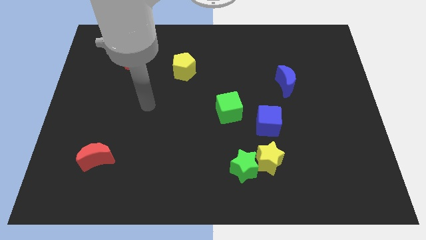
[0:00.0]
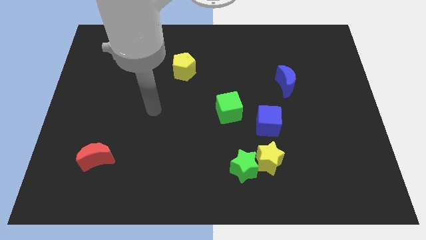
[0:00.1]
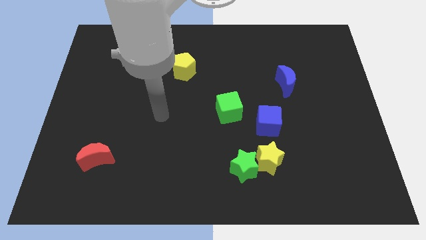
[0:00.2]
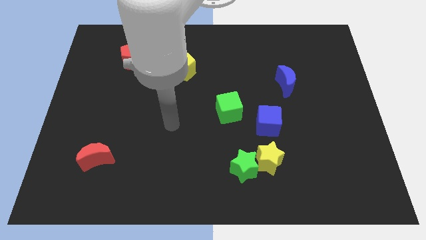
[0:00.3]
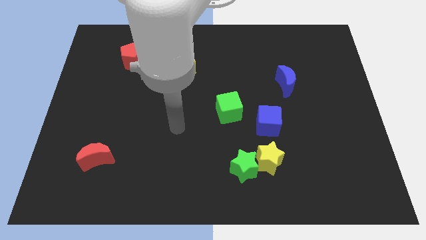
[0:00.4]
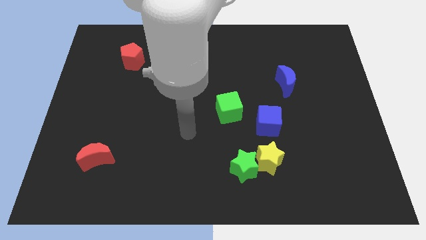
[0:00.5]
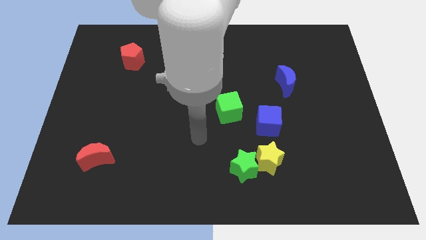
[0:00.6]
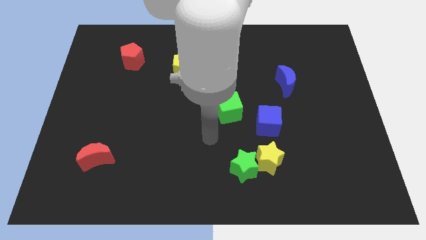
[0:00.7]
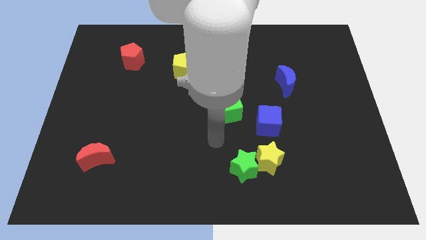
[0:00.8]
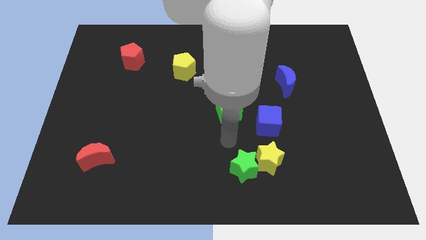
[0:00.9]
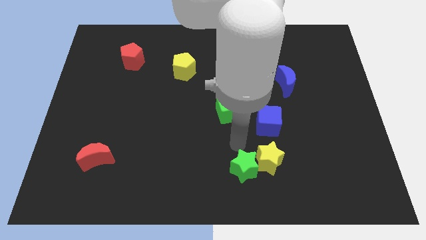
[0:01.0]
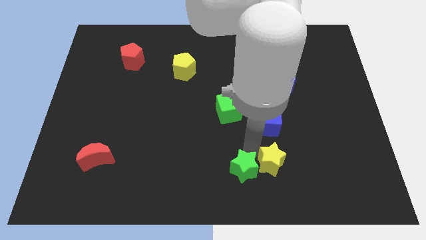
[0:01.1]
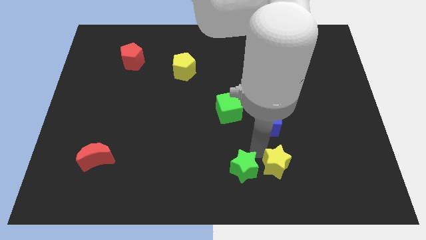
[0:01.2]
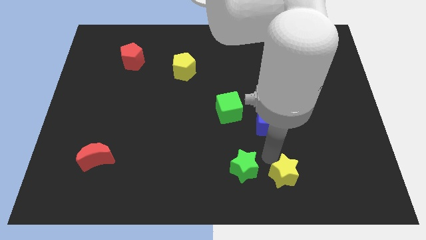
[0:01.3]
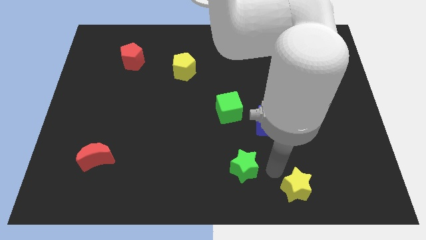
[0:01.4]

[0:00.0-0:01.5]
separate the green star from the yellow star

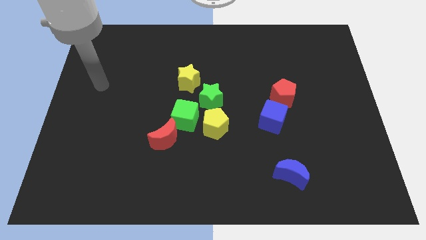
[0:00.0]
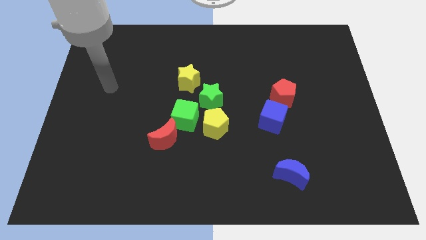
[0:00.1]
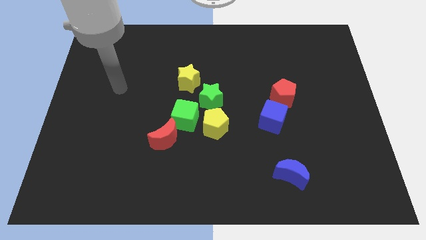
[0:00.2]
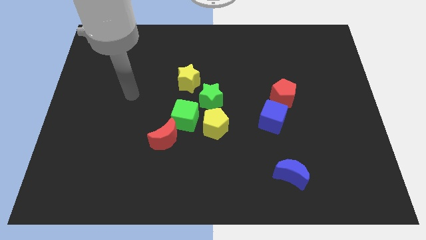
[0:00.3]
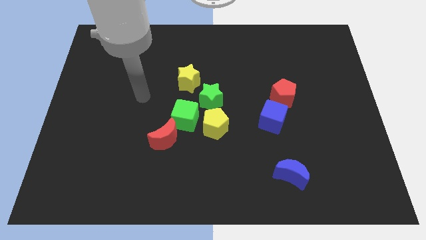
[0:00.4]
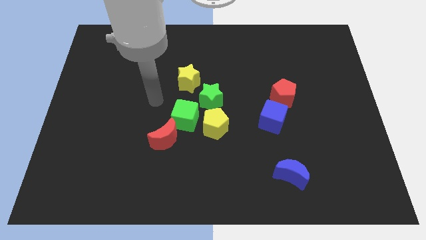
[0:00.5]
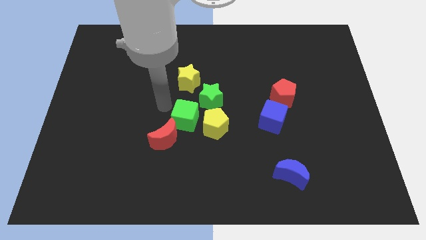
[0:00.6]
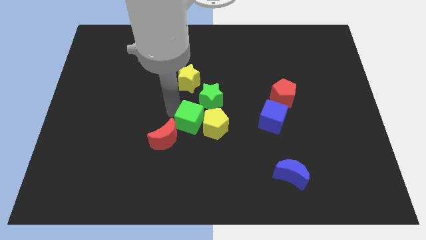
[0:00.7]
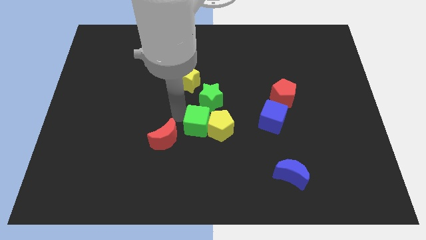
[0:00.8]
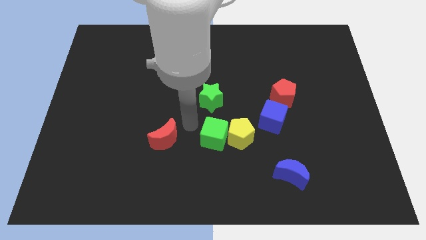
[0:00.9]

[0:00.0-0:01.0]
pull the red moon apart from the green cube

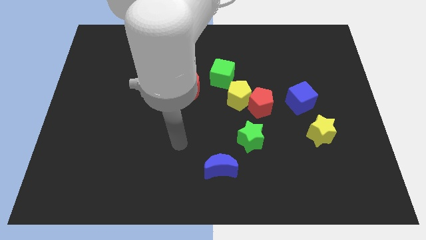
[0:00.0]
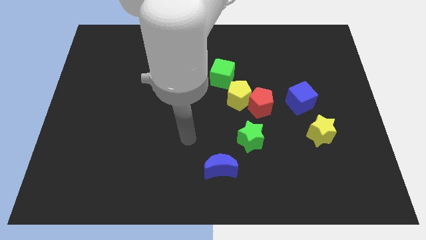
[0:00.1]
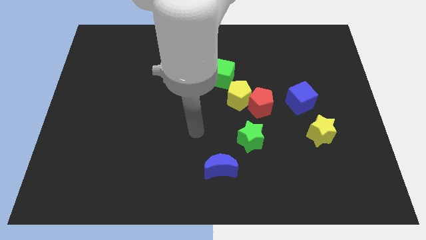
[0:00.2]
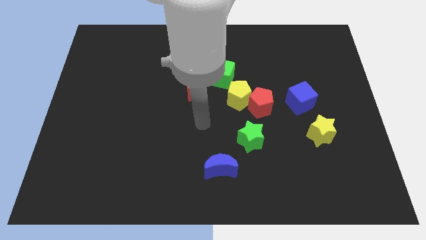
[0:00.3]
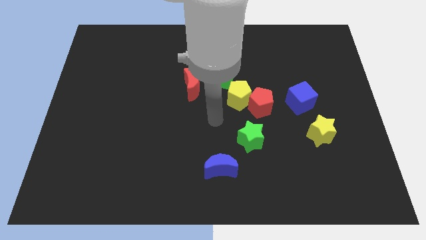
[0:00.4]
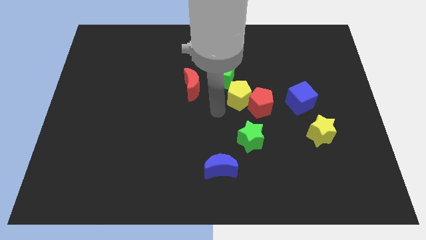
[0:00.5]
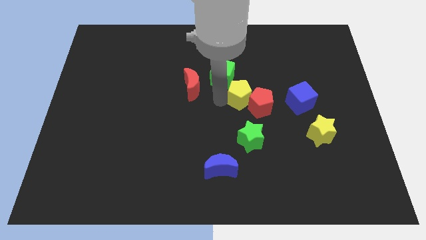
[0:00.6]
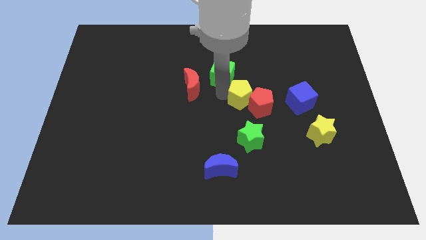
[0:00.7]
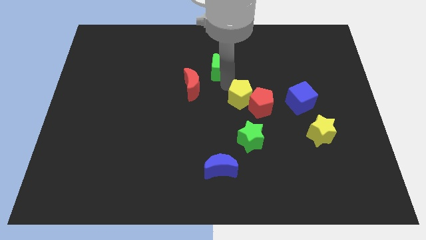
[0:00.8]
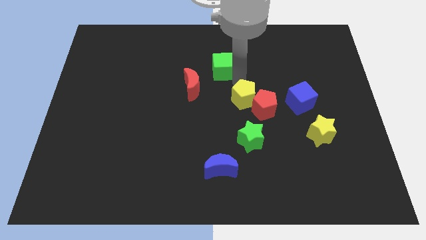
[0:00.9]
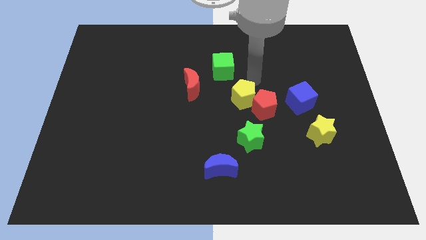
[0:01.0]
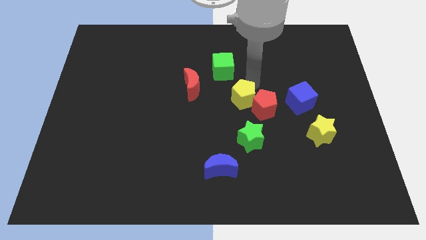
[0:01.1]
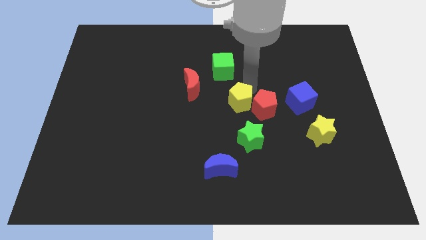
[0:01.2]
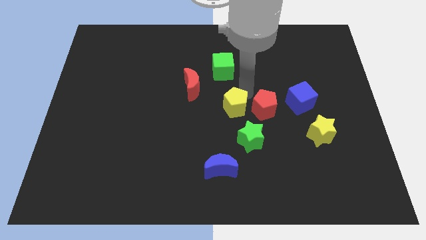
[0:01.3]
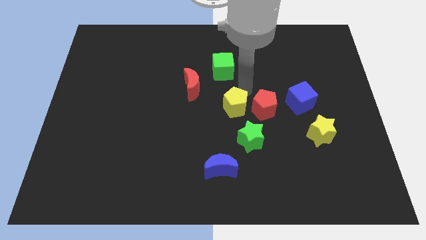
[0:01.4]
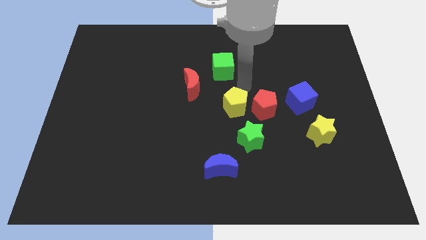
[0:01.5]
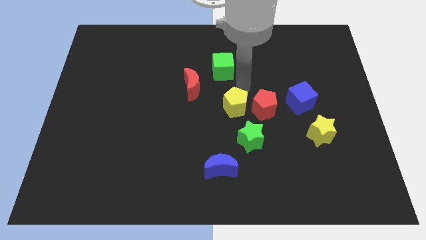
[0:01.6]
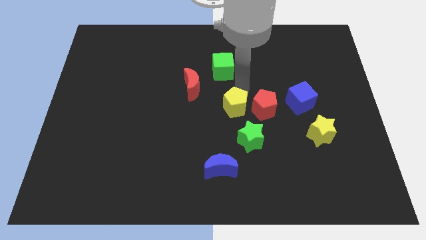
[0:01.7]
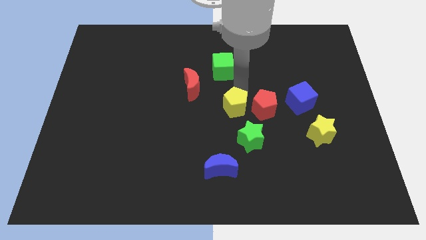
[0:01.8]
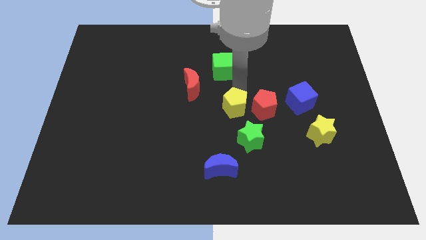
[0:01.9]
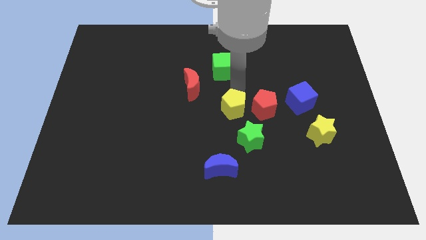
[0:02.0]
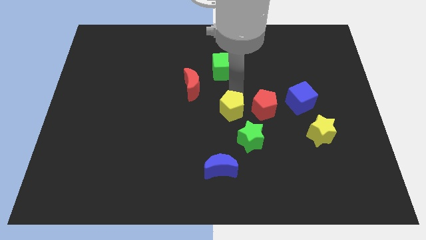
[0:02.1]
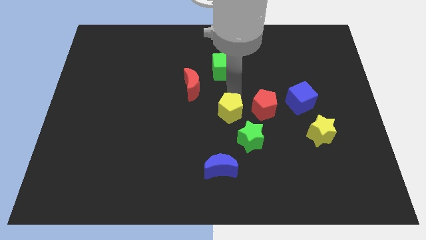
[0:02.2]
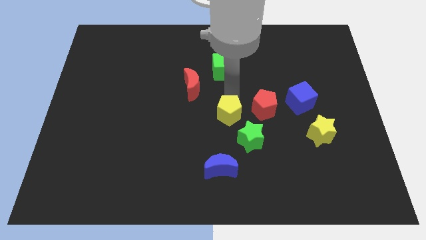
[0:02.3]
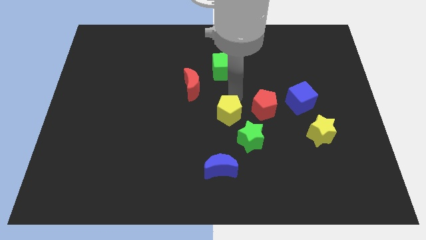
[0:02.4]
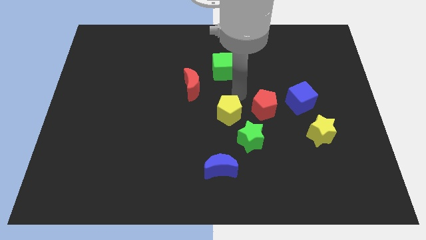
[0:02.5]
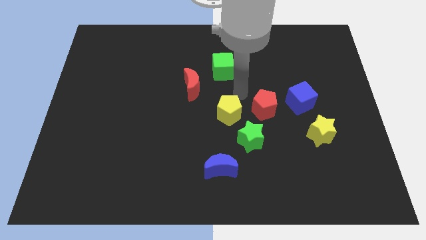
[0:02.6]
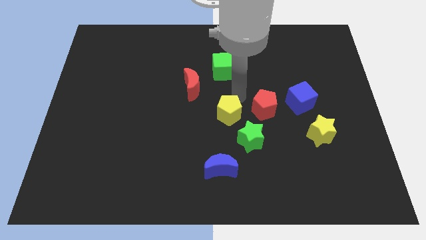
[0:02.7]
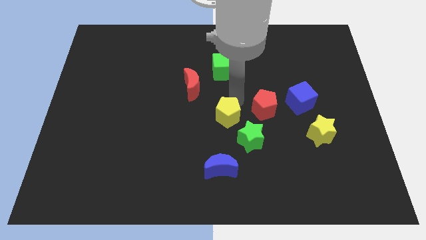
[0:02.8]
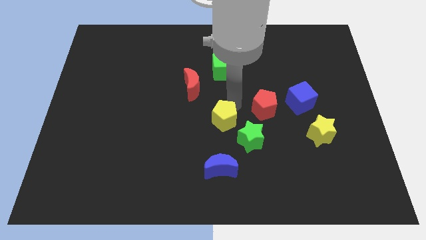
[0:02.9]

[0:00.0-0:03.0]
separate the yellow pentagon from the red pentagon and green cube

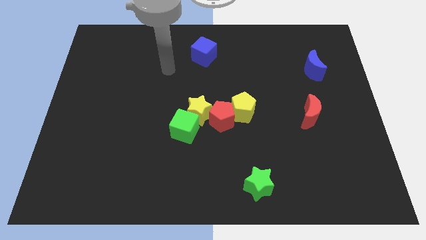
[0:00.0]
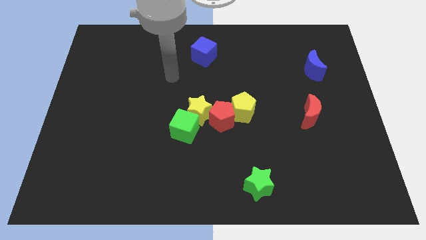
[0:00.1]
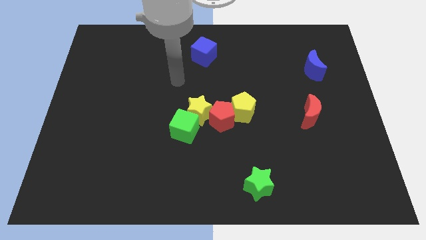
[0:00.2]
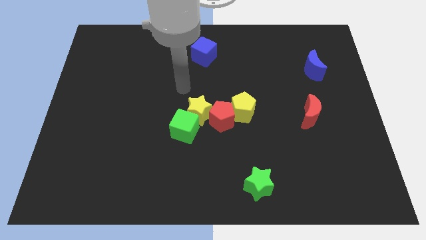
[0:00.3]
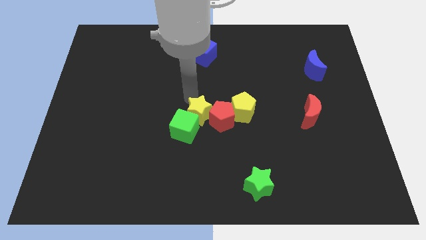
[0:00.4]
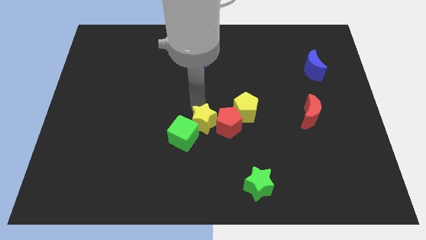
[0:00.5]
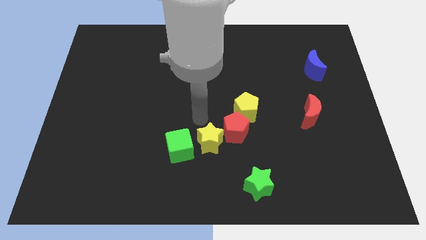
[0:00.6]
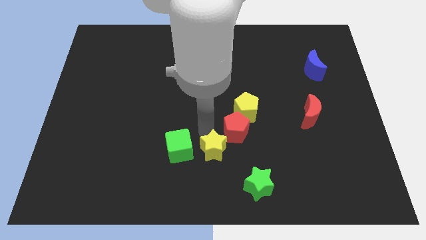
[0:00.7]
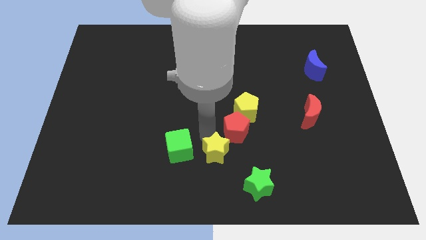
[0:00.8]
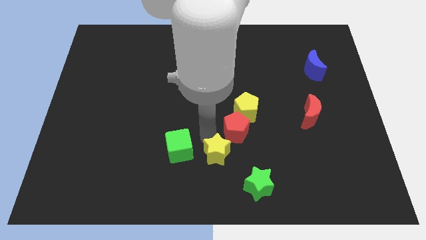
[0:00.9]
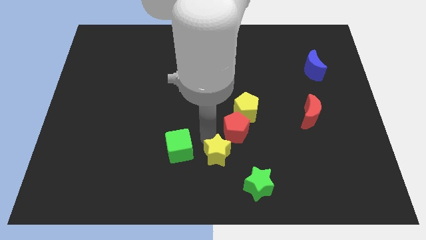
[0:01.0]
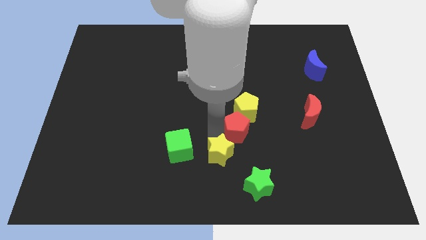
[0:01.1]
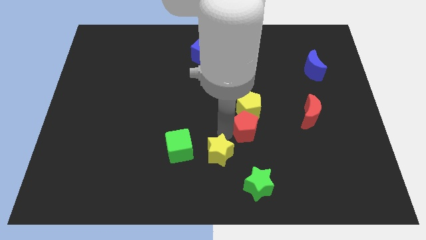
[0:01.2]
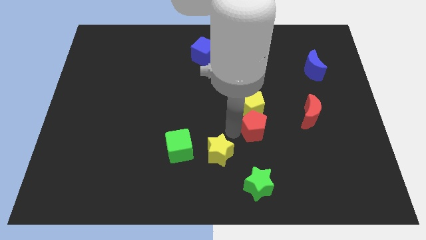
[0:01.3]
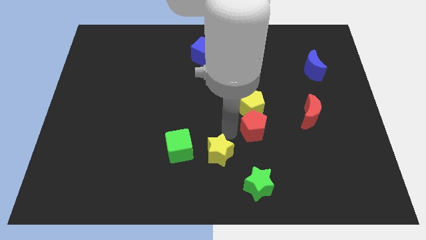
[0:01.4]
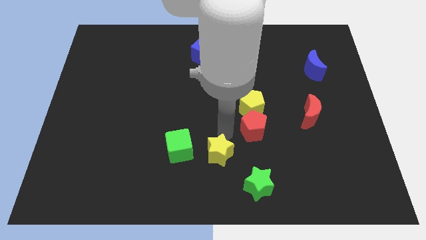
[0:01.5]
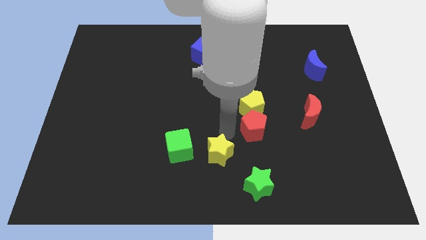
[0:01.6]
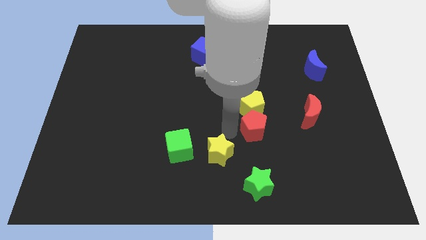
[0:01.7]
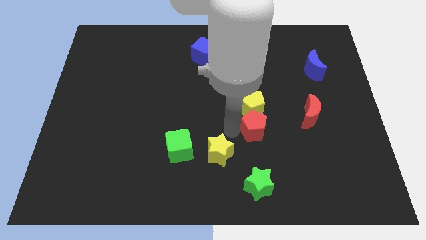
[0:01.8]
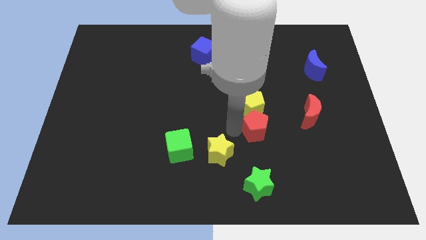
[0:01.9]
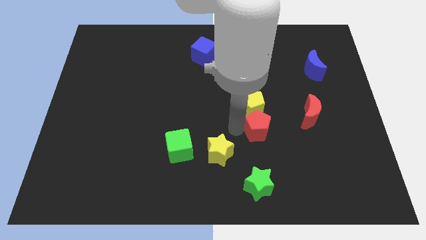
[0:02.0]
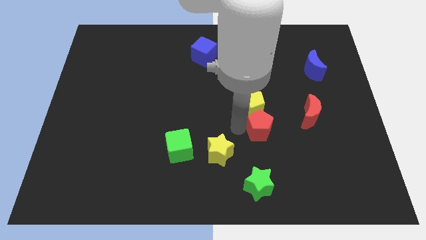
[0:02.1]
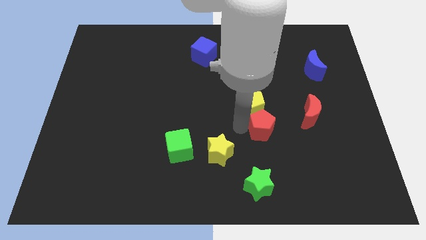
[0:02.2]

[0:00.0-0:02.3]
pull the red pentagon apart from the clump

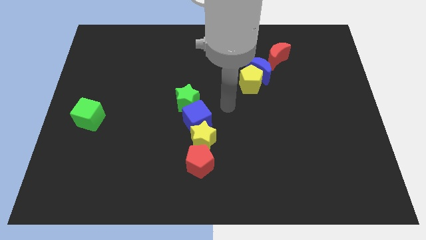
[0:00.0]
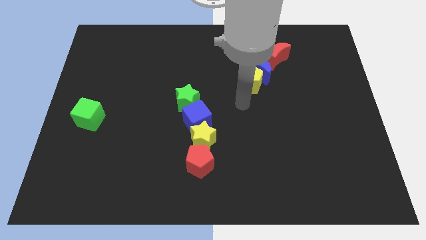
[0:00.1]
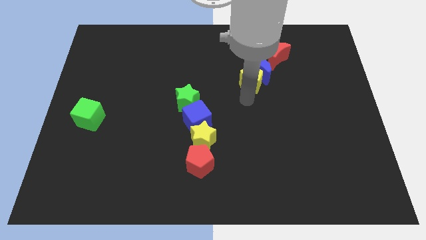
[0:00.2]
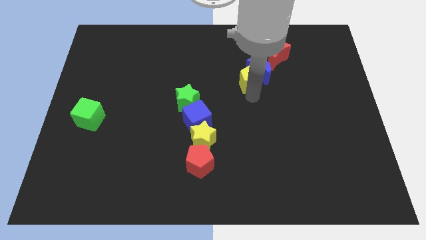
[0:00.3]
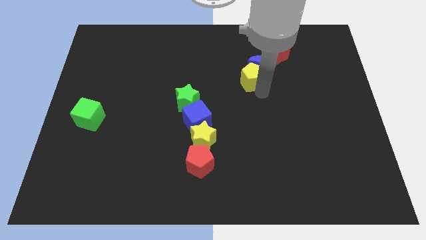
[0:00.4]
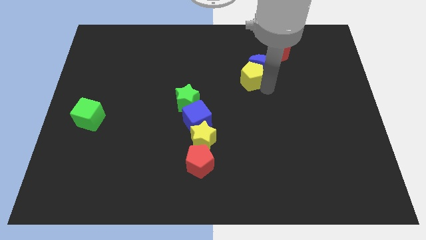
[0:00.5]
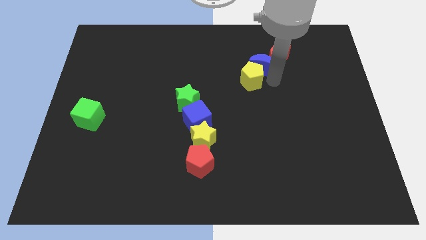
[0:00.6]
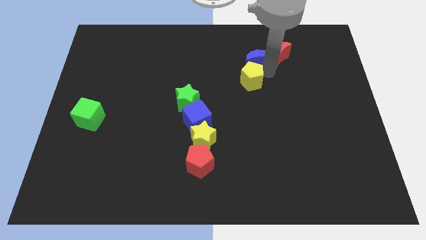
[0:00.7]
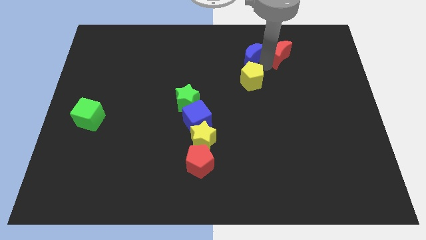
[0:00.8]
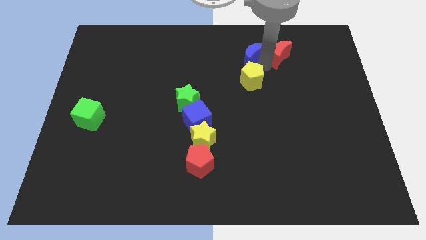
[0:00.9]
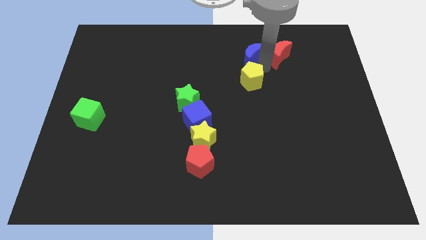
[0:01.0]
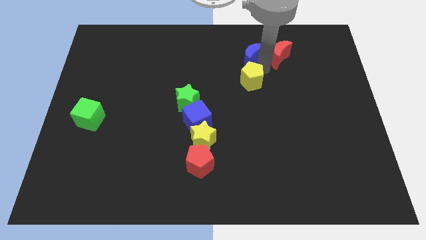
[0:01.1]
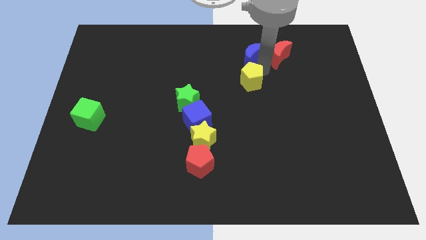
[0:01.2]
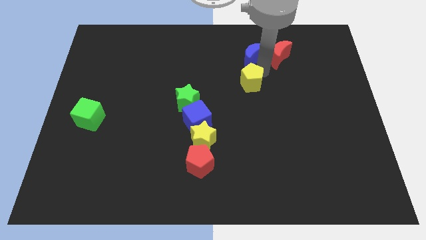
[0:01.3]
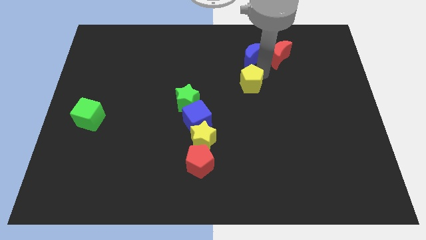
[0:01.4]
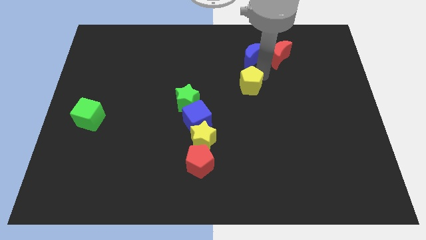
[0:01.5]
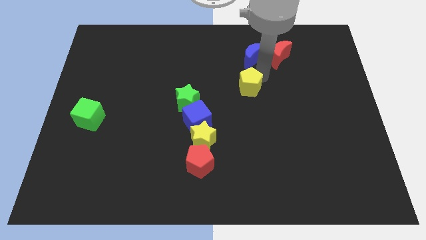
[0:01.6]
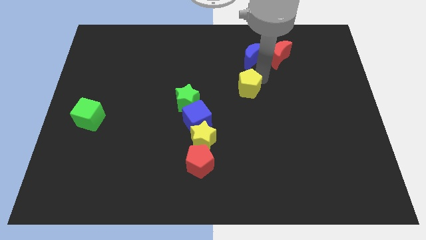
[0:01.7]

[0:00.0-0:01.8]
separate the yellow pentagon from the blue moon
